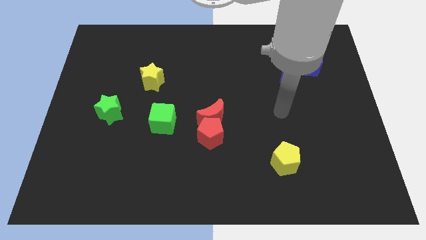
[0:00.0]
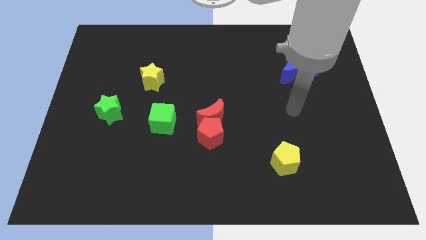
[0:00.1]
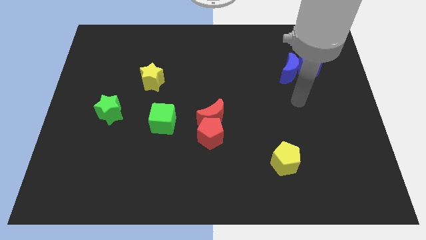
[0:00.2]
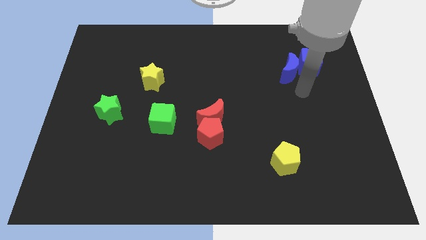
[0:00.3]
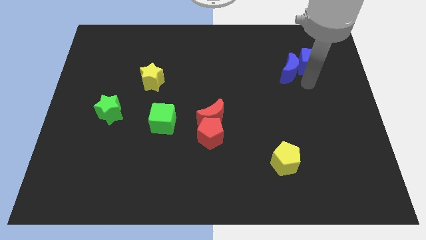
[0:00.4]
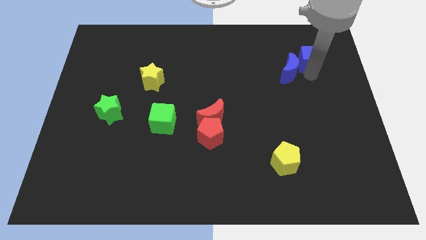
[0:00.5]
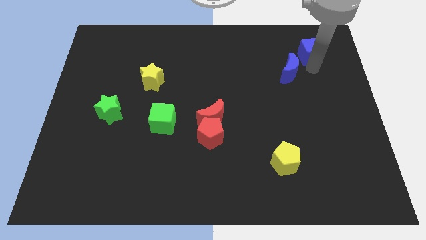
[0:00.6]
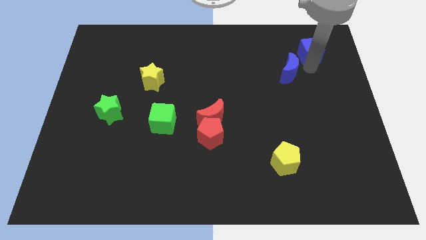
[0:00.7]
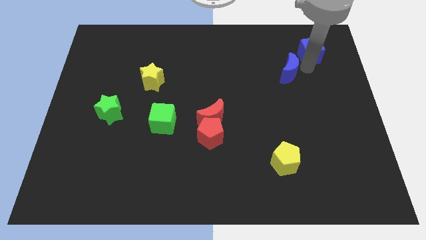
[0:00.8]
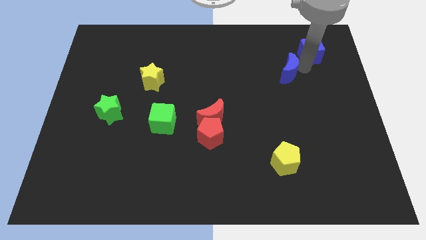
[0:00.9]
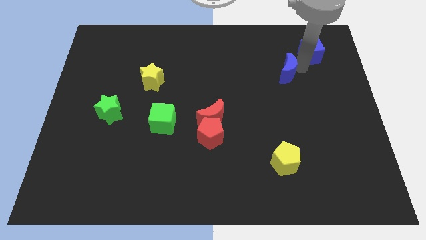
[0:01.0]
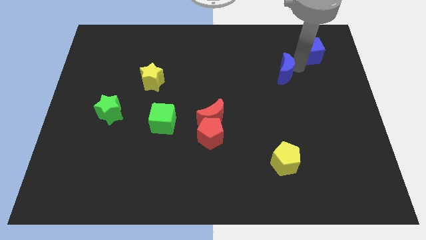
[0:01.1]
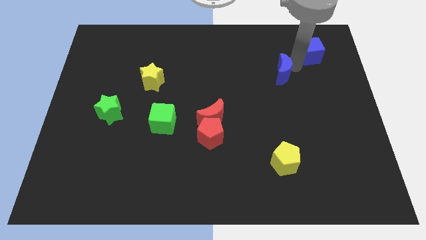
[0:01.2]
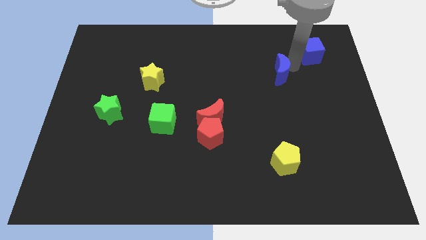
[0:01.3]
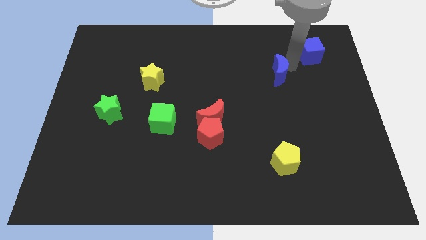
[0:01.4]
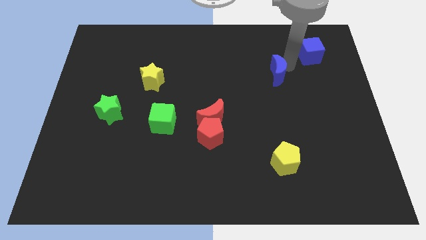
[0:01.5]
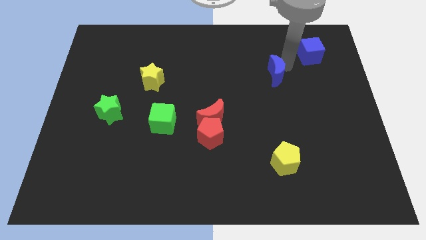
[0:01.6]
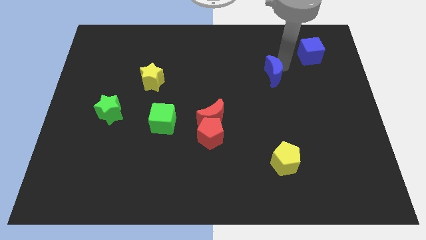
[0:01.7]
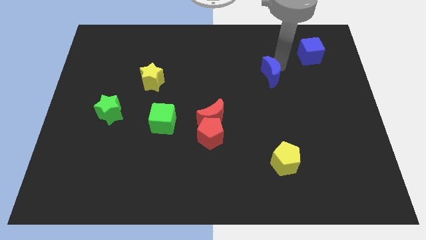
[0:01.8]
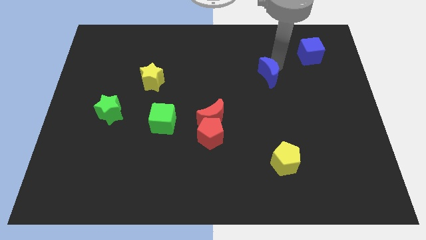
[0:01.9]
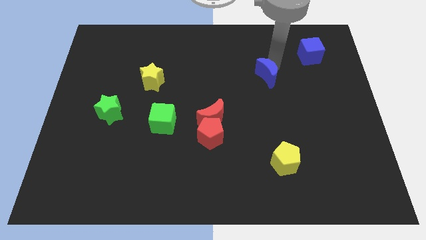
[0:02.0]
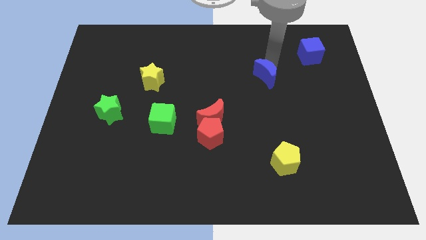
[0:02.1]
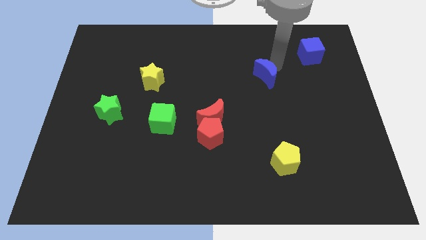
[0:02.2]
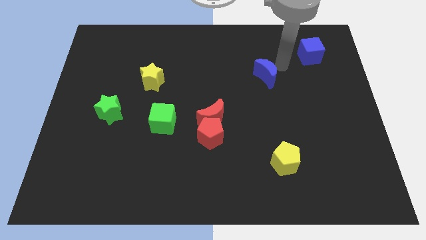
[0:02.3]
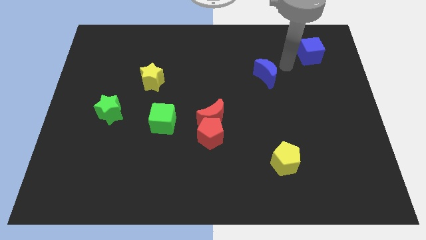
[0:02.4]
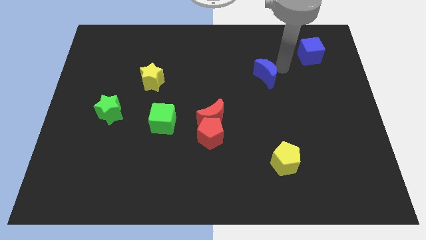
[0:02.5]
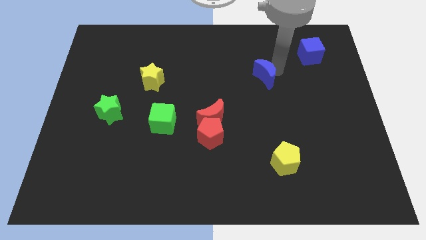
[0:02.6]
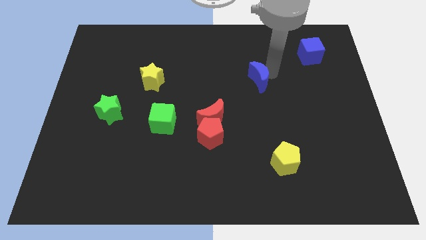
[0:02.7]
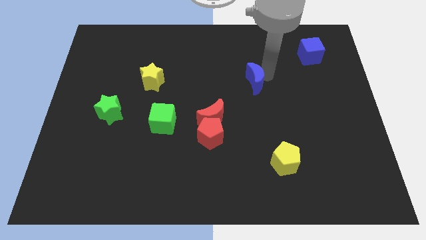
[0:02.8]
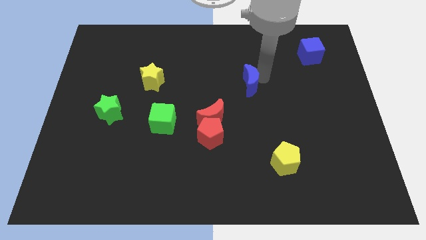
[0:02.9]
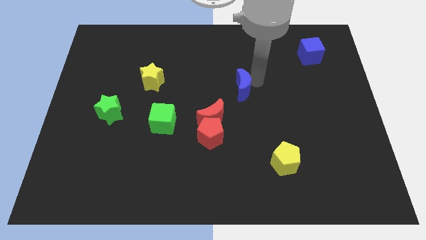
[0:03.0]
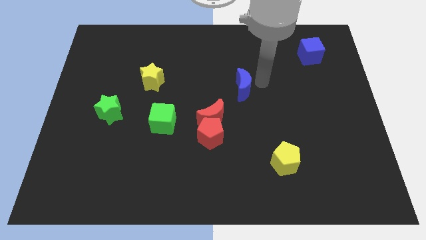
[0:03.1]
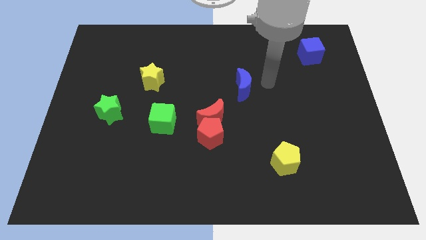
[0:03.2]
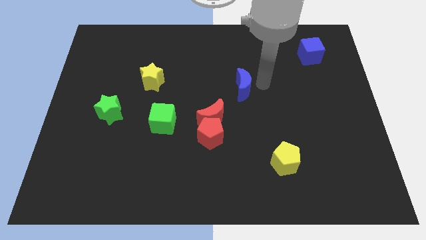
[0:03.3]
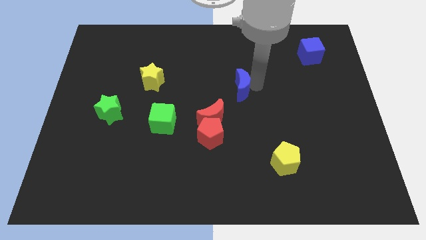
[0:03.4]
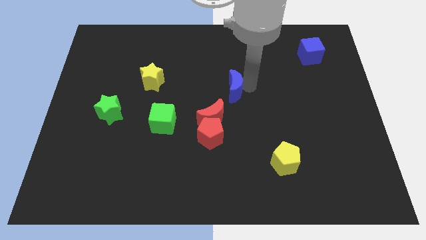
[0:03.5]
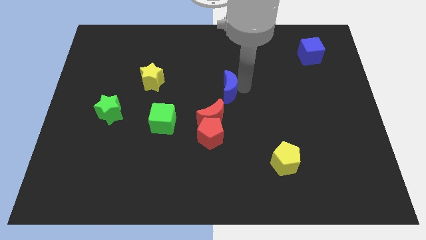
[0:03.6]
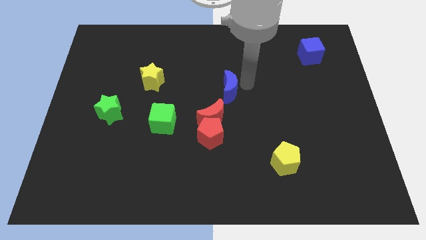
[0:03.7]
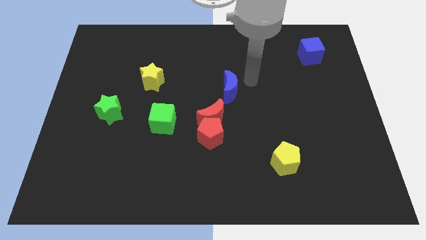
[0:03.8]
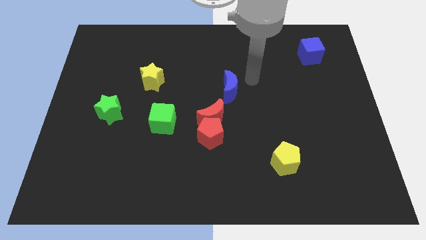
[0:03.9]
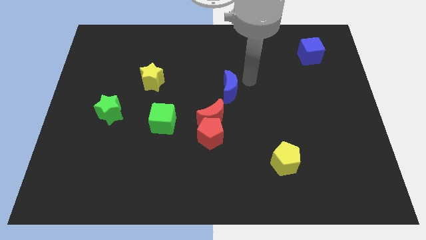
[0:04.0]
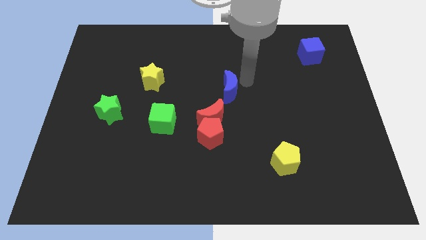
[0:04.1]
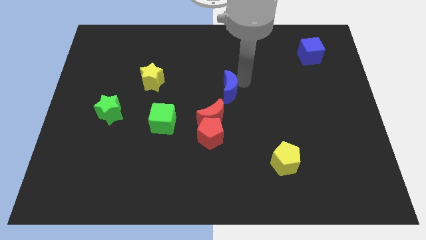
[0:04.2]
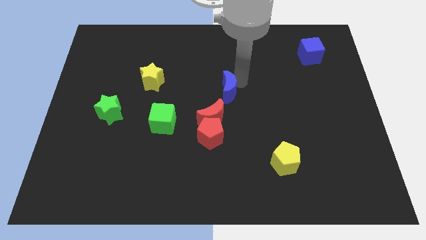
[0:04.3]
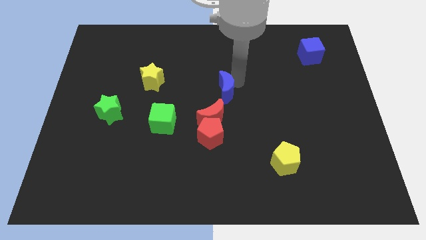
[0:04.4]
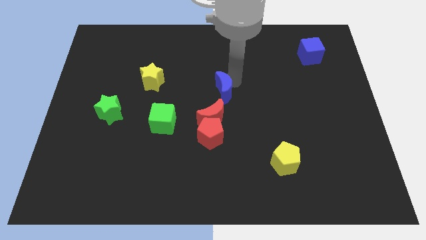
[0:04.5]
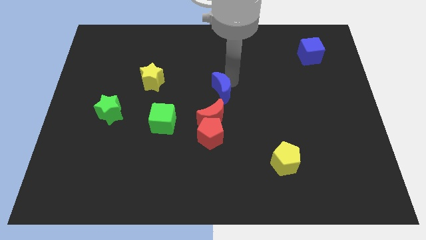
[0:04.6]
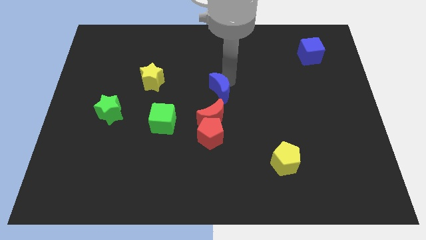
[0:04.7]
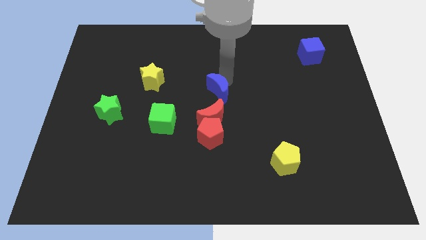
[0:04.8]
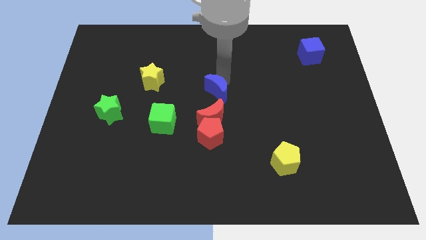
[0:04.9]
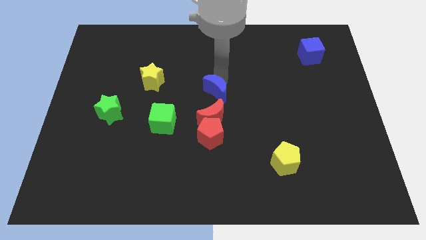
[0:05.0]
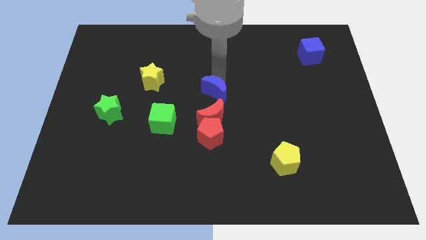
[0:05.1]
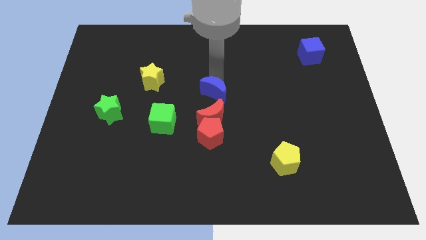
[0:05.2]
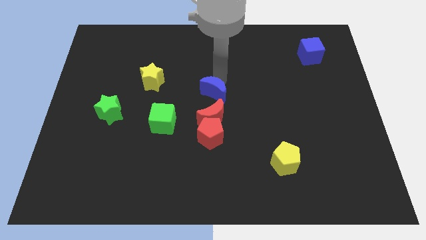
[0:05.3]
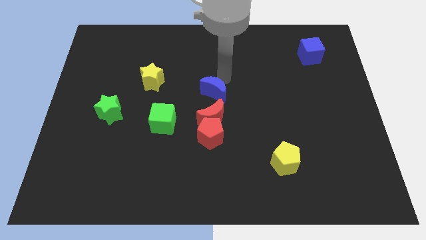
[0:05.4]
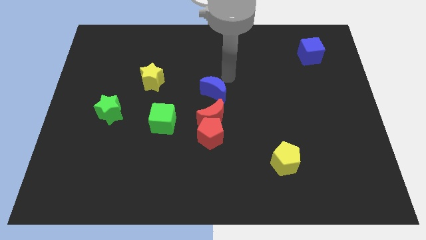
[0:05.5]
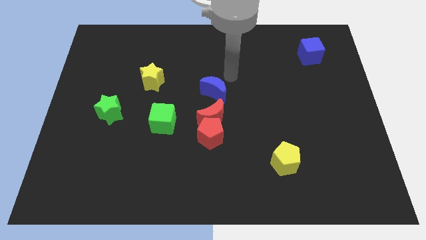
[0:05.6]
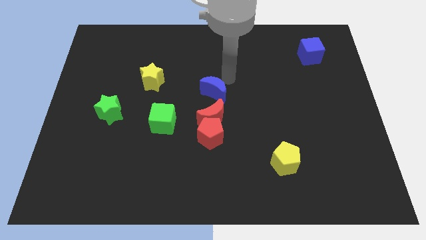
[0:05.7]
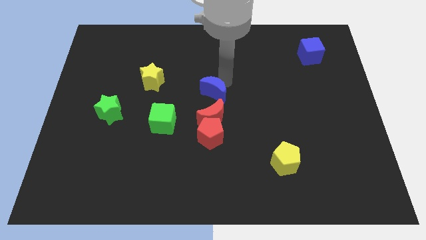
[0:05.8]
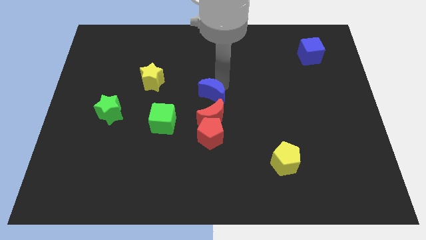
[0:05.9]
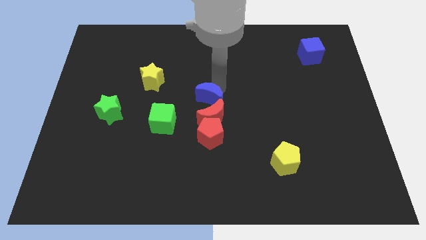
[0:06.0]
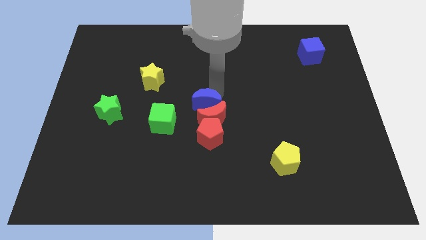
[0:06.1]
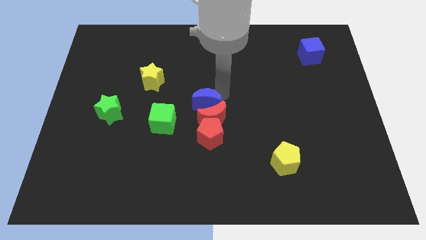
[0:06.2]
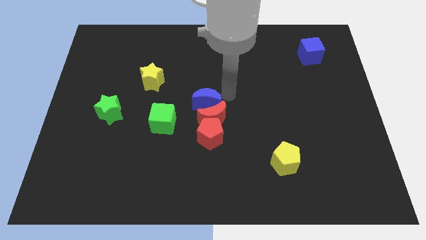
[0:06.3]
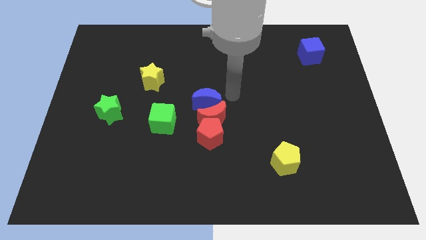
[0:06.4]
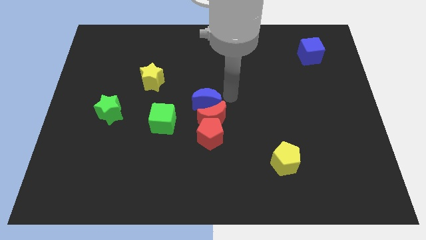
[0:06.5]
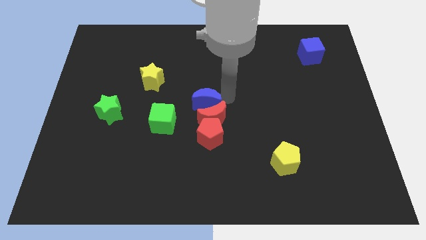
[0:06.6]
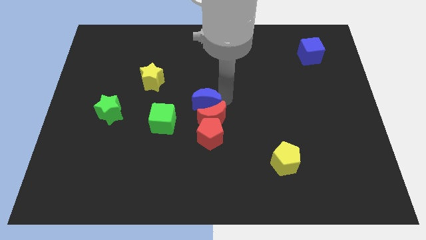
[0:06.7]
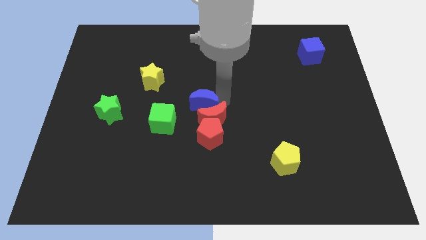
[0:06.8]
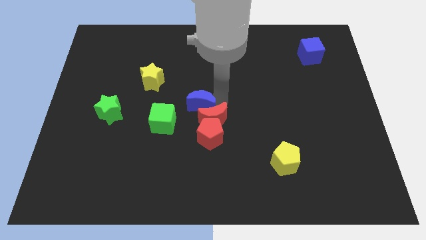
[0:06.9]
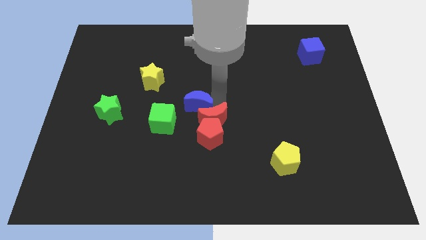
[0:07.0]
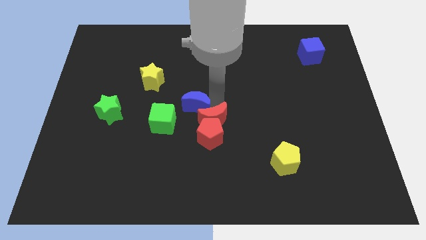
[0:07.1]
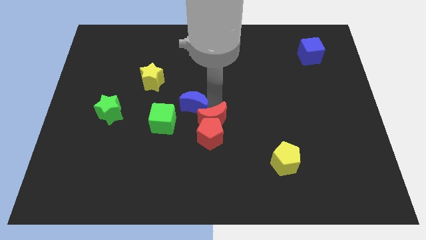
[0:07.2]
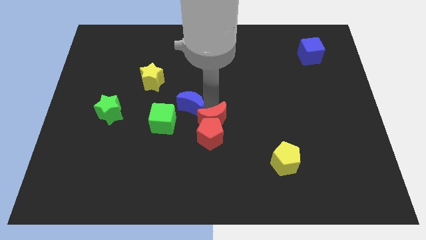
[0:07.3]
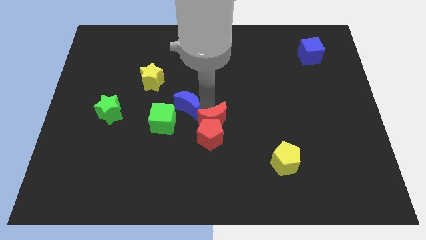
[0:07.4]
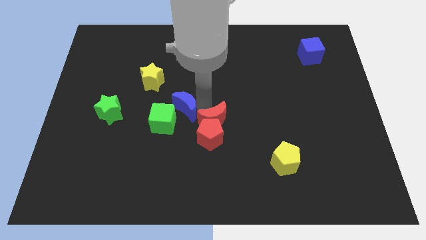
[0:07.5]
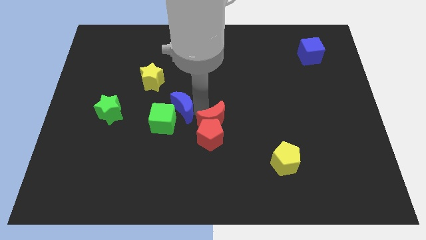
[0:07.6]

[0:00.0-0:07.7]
move the blue moon to the green cube

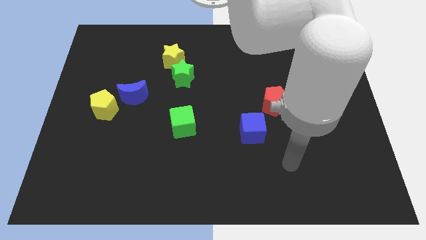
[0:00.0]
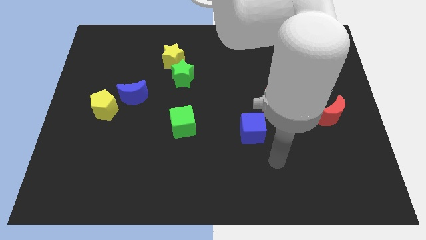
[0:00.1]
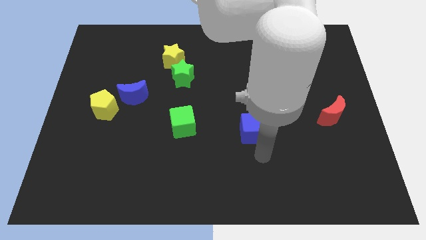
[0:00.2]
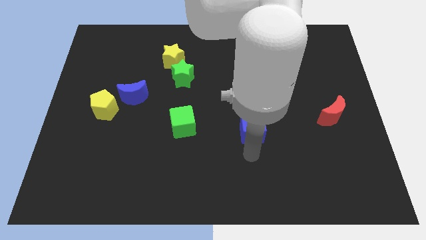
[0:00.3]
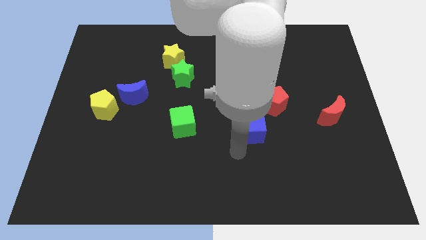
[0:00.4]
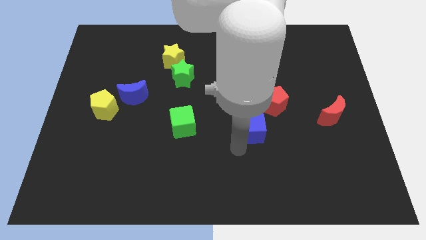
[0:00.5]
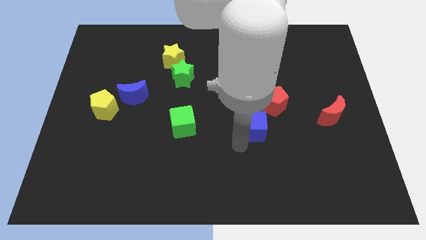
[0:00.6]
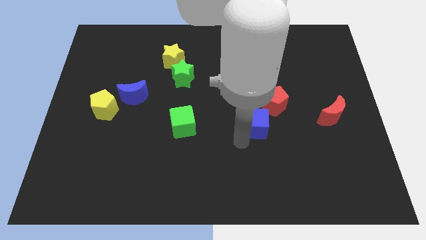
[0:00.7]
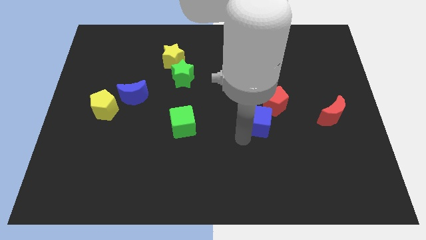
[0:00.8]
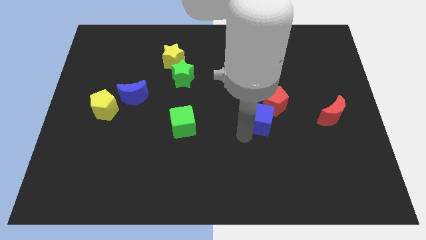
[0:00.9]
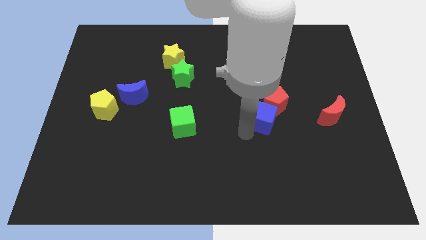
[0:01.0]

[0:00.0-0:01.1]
move the blue cube next to the red pentagon
